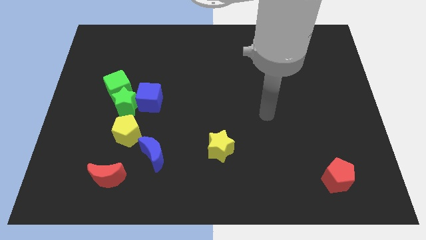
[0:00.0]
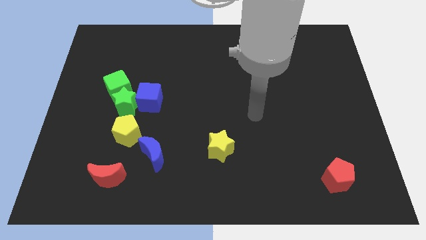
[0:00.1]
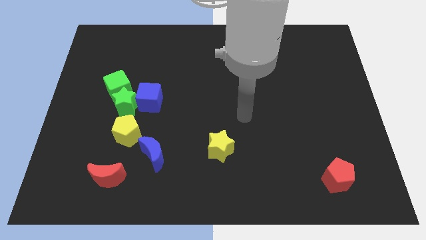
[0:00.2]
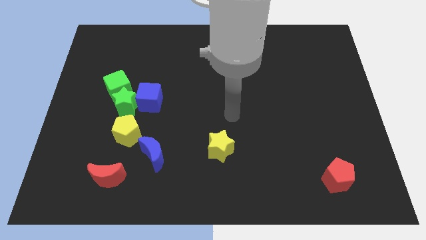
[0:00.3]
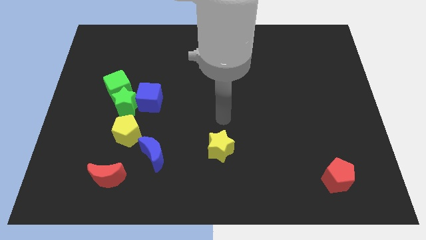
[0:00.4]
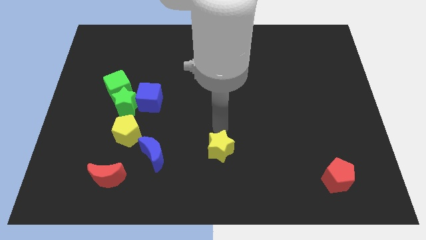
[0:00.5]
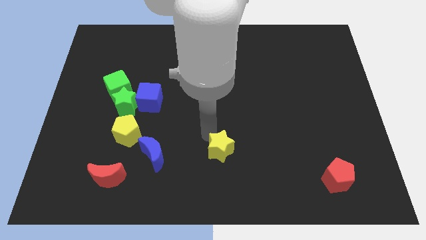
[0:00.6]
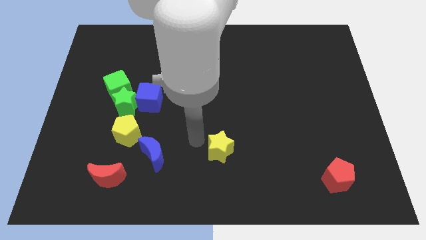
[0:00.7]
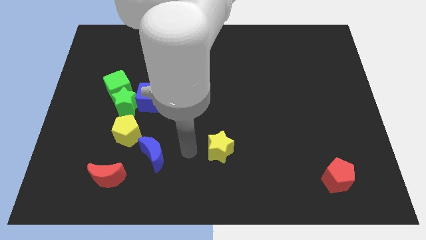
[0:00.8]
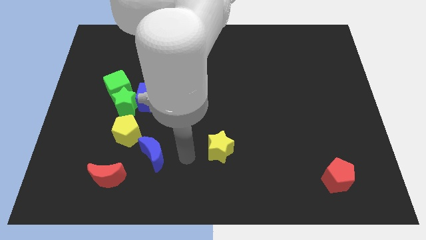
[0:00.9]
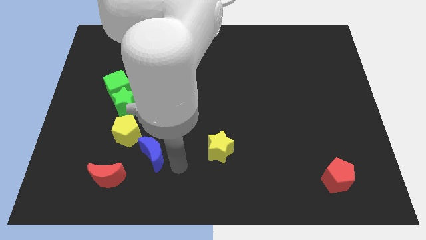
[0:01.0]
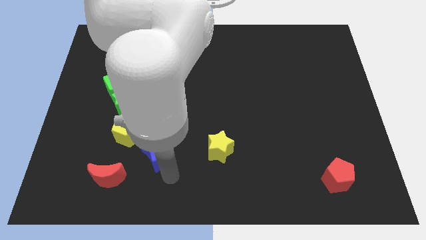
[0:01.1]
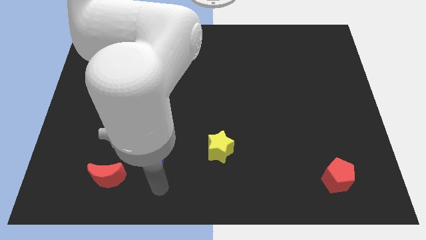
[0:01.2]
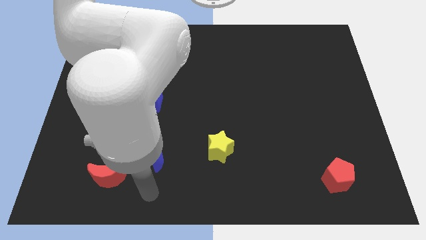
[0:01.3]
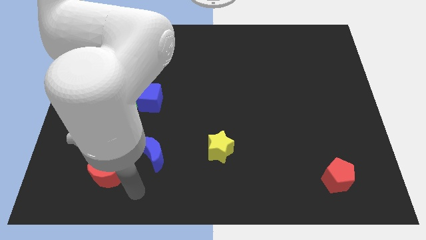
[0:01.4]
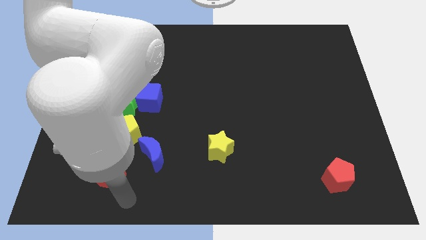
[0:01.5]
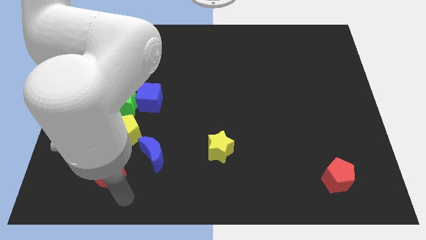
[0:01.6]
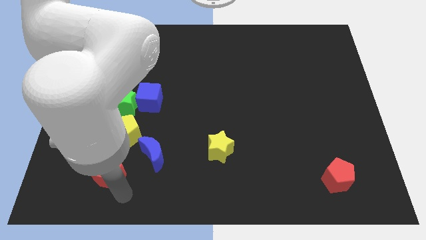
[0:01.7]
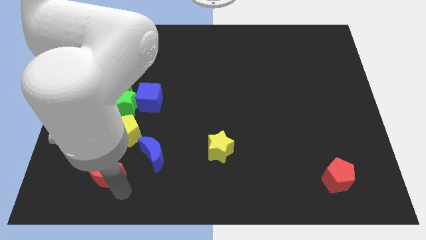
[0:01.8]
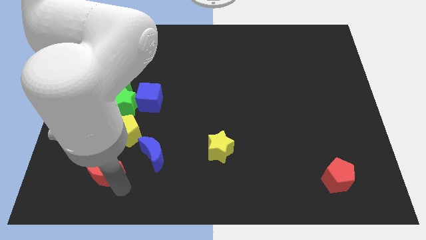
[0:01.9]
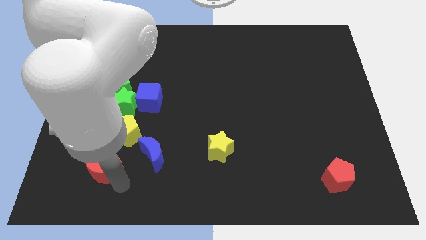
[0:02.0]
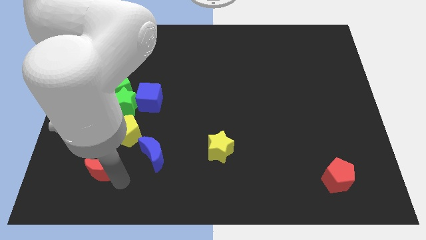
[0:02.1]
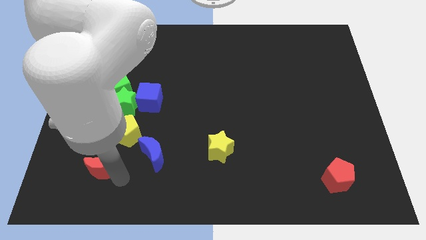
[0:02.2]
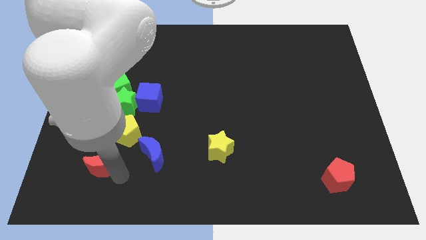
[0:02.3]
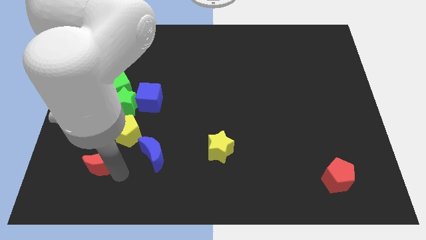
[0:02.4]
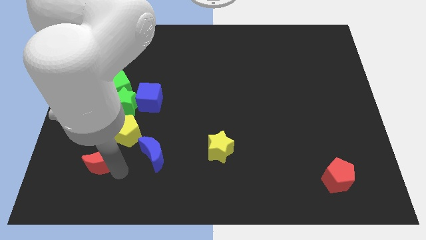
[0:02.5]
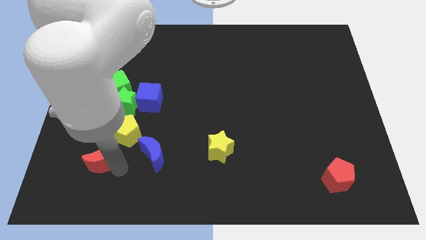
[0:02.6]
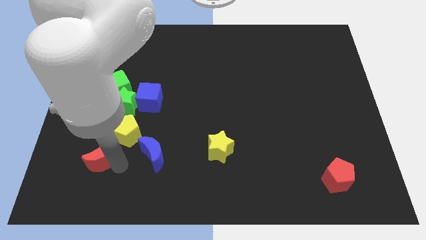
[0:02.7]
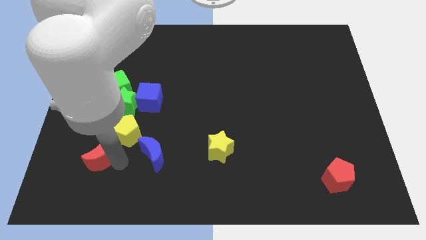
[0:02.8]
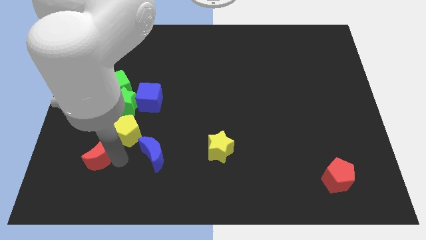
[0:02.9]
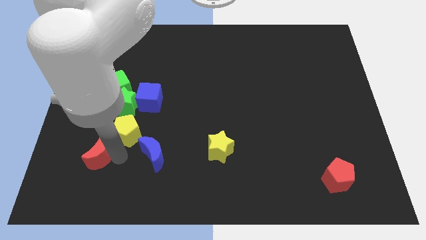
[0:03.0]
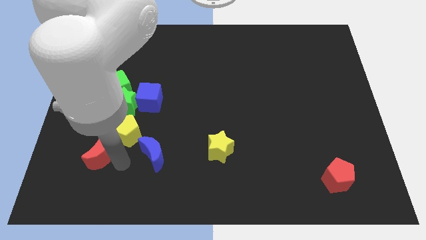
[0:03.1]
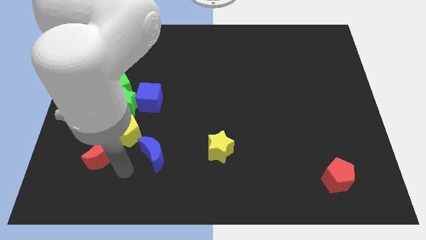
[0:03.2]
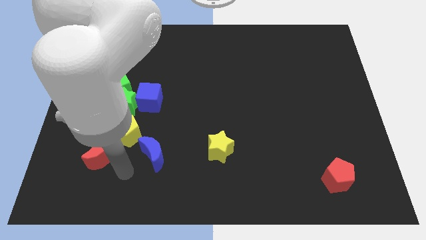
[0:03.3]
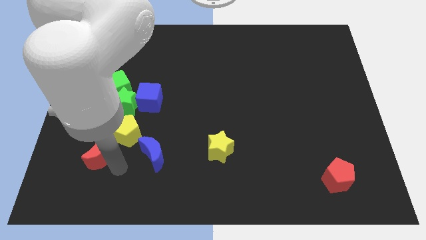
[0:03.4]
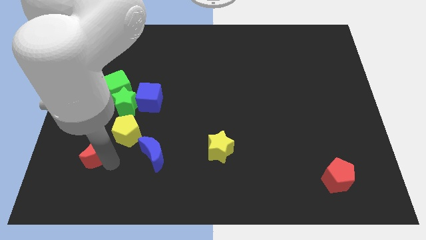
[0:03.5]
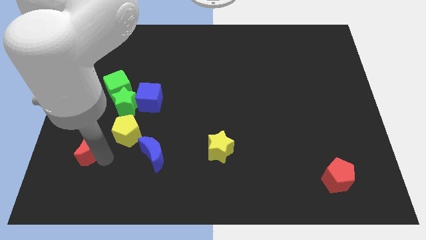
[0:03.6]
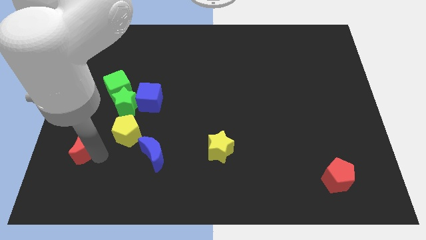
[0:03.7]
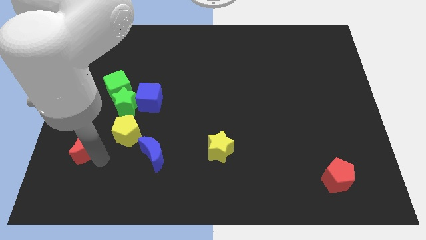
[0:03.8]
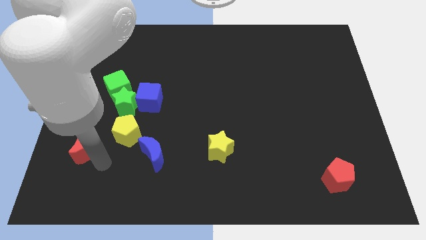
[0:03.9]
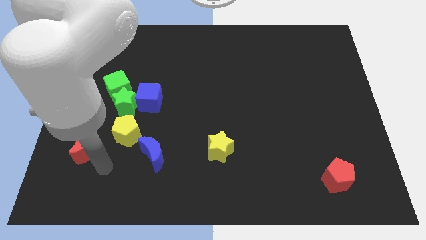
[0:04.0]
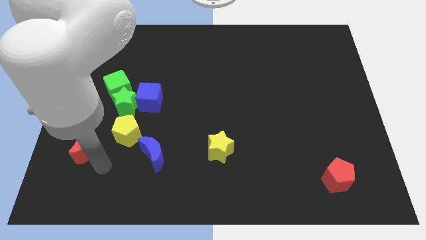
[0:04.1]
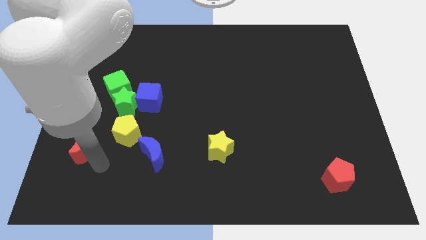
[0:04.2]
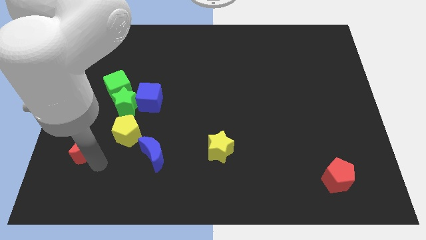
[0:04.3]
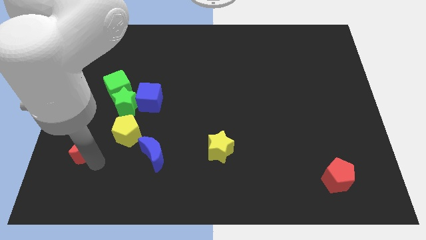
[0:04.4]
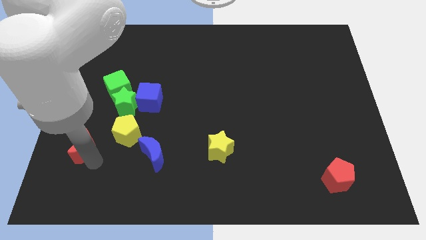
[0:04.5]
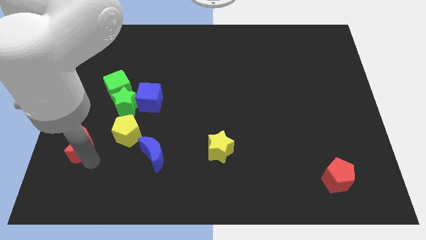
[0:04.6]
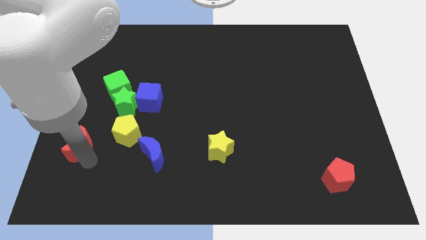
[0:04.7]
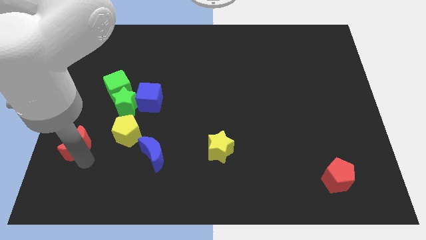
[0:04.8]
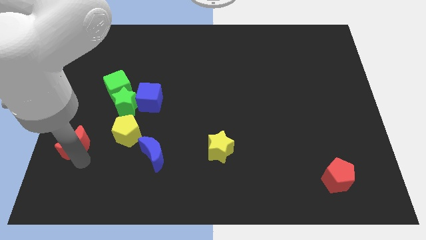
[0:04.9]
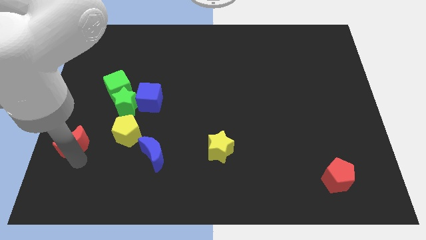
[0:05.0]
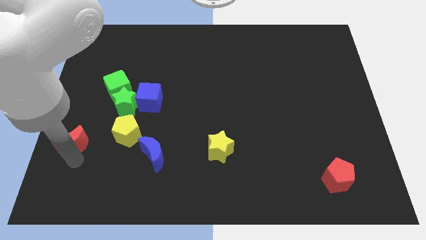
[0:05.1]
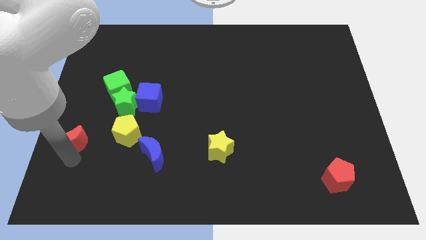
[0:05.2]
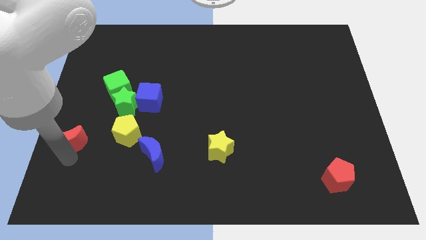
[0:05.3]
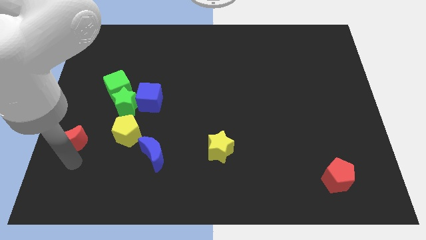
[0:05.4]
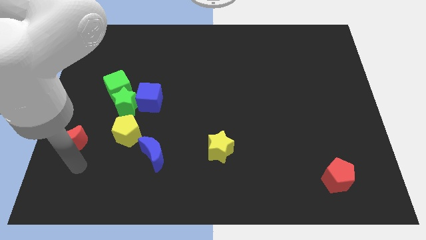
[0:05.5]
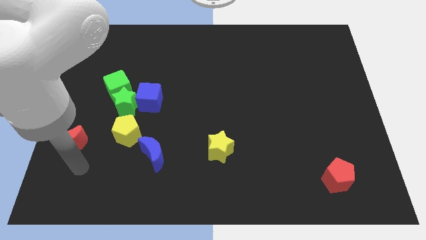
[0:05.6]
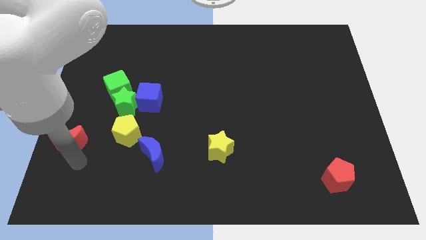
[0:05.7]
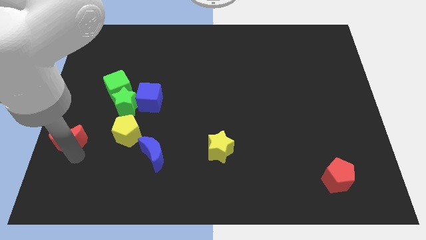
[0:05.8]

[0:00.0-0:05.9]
push the red moon to the left side

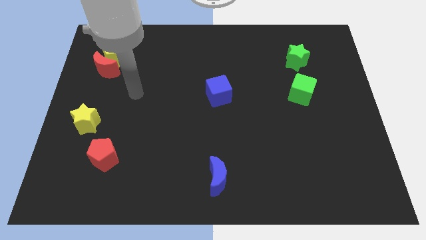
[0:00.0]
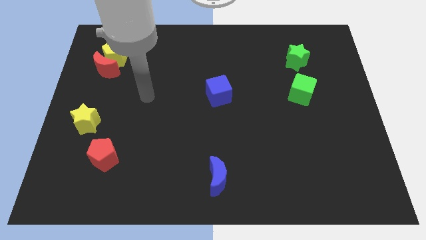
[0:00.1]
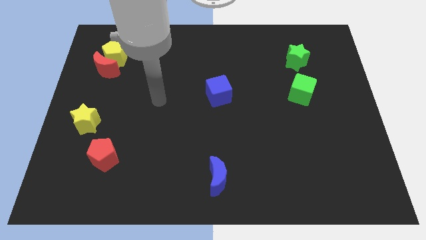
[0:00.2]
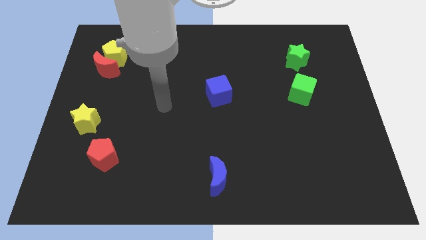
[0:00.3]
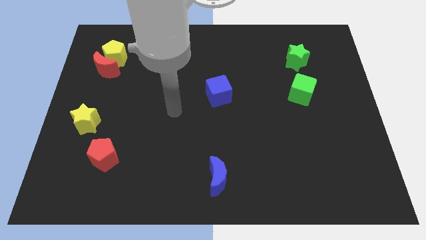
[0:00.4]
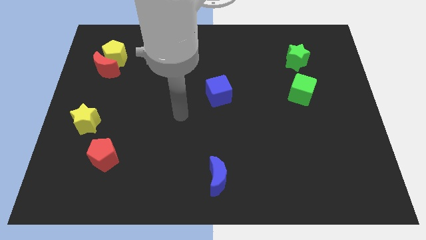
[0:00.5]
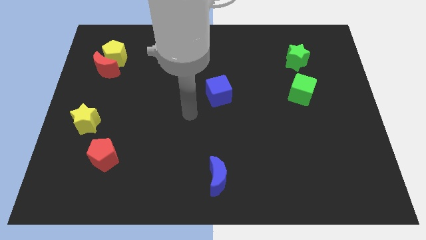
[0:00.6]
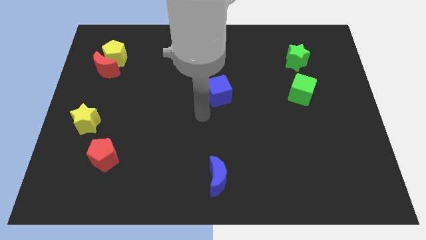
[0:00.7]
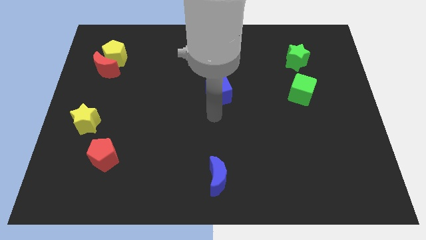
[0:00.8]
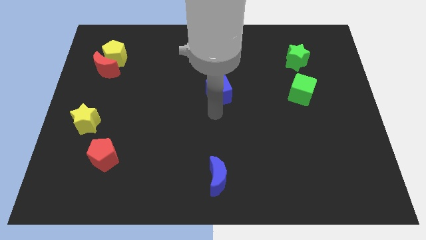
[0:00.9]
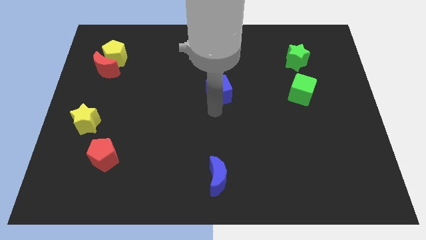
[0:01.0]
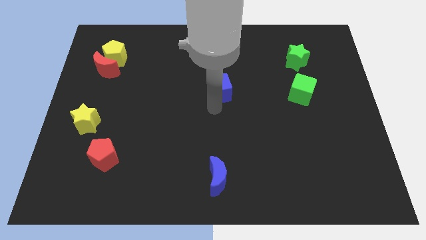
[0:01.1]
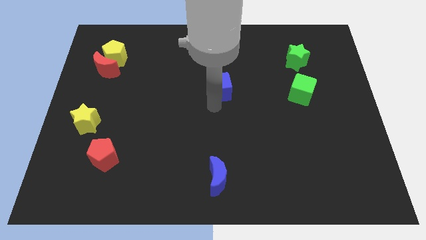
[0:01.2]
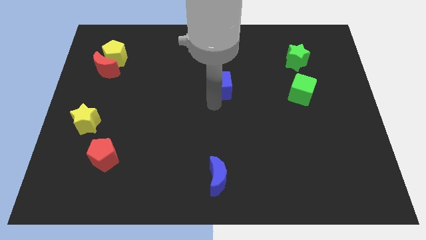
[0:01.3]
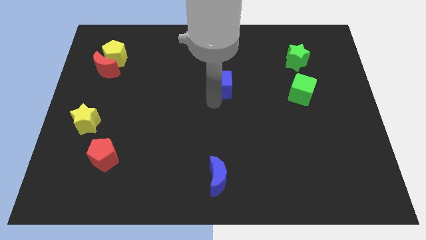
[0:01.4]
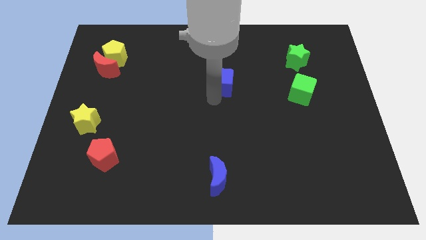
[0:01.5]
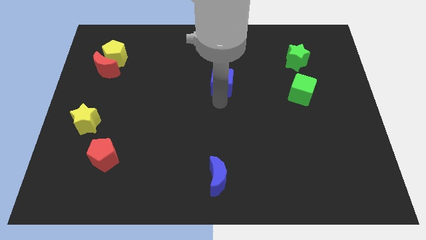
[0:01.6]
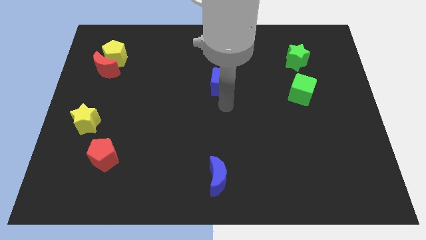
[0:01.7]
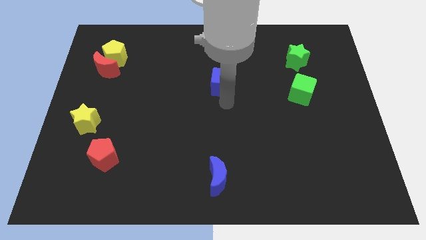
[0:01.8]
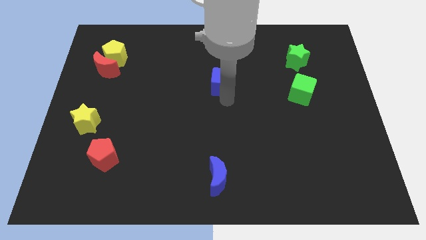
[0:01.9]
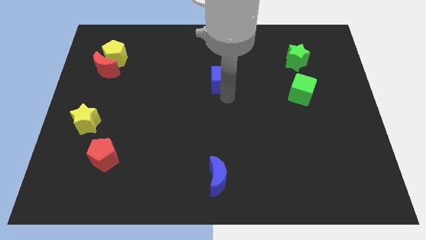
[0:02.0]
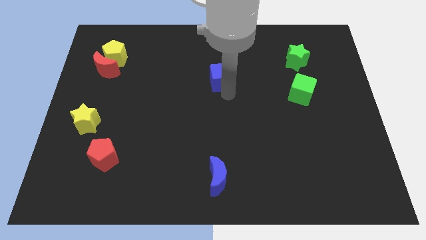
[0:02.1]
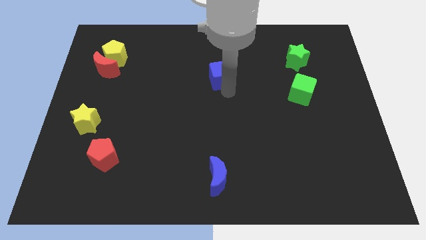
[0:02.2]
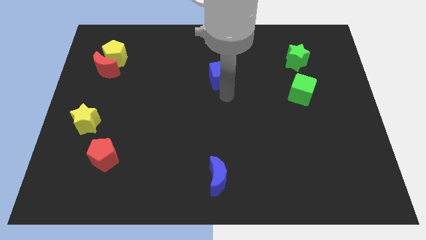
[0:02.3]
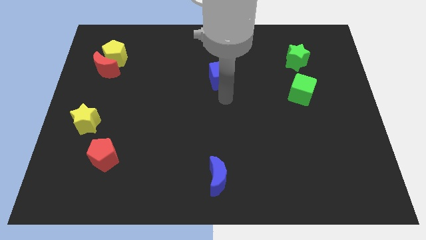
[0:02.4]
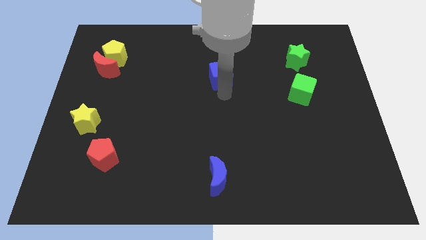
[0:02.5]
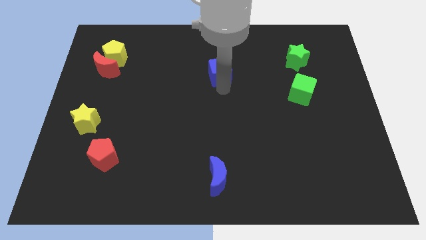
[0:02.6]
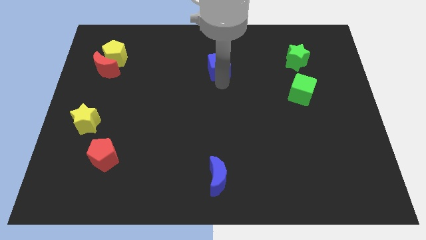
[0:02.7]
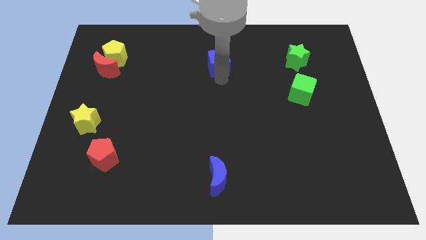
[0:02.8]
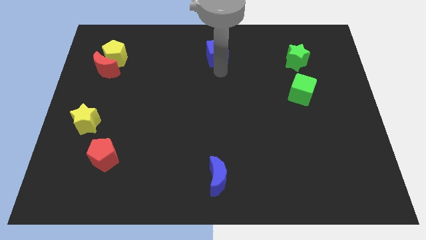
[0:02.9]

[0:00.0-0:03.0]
slide the blue cube to the top side
